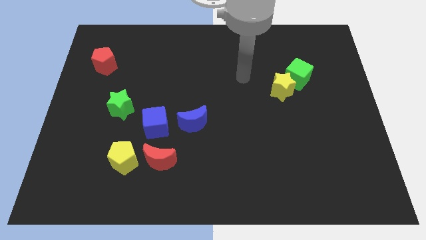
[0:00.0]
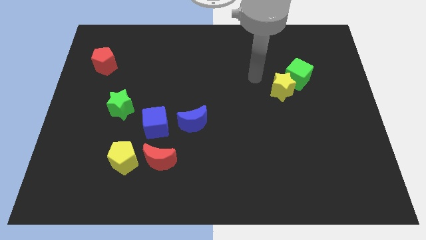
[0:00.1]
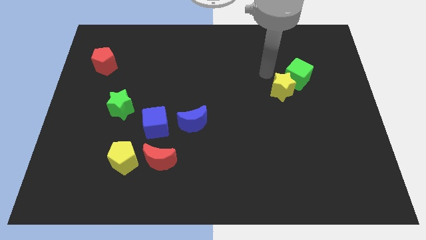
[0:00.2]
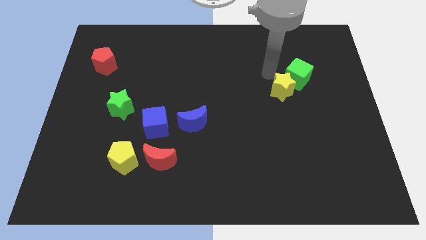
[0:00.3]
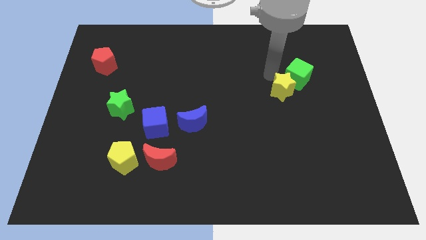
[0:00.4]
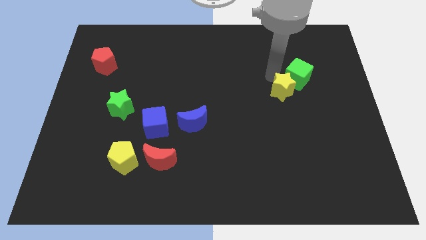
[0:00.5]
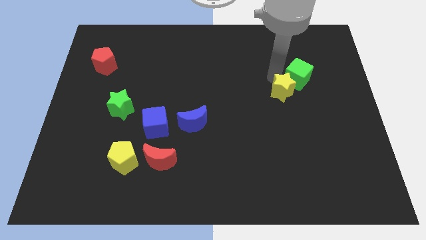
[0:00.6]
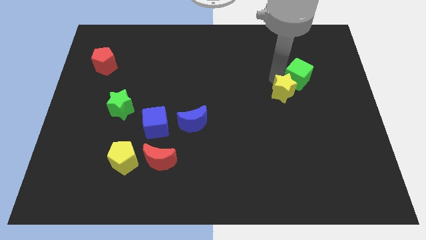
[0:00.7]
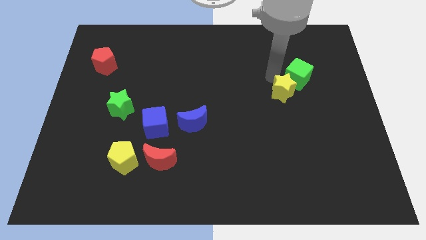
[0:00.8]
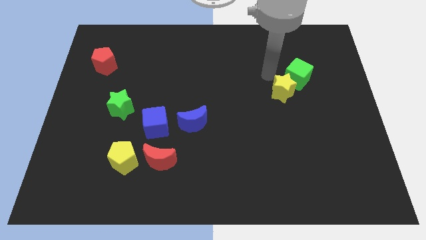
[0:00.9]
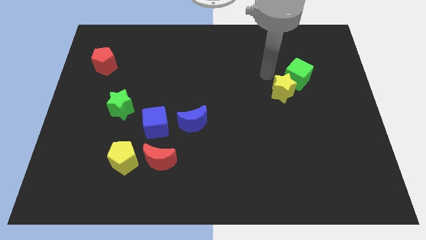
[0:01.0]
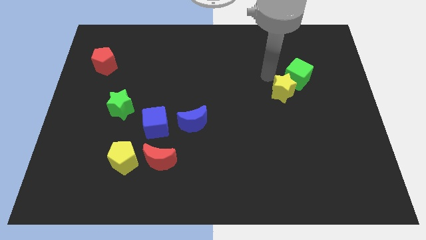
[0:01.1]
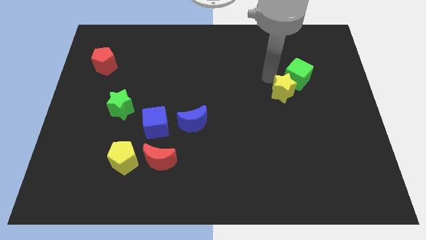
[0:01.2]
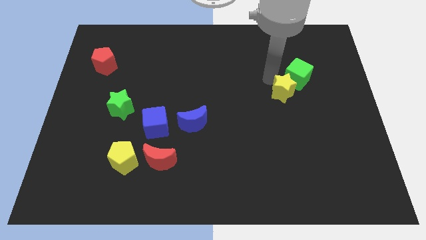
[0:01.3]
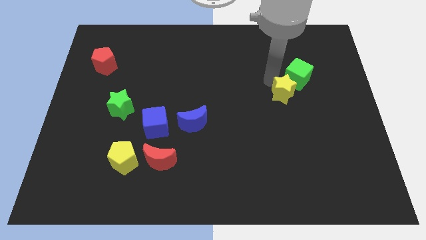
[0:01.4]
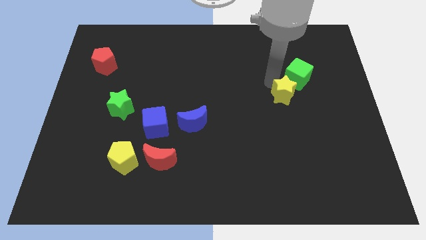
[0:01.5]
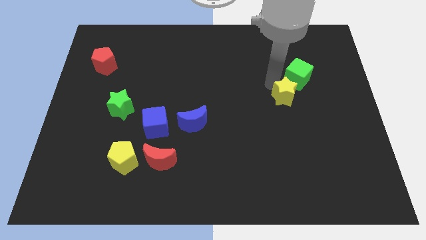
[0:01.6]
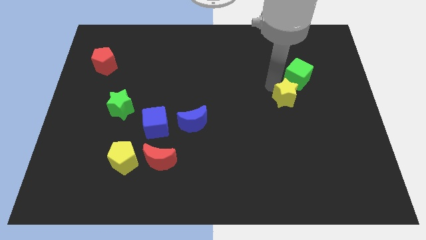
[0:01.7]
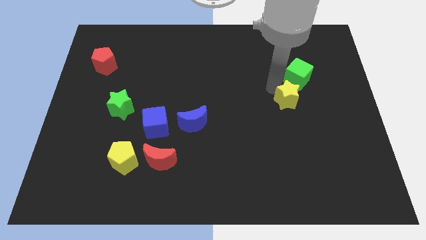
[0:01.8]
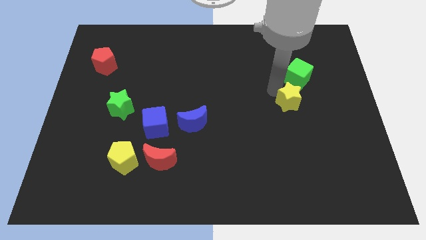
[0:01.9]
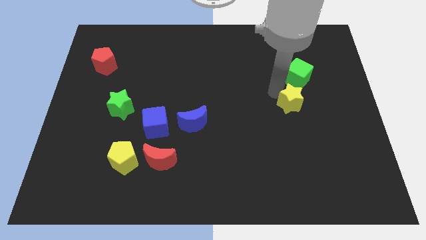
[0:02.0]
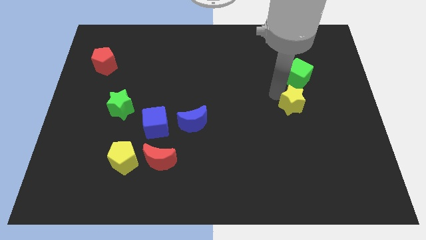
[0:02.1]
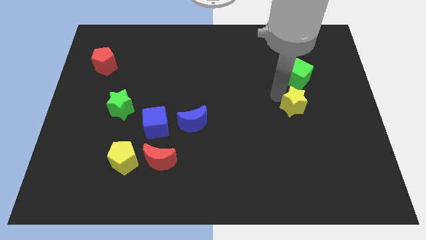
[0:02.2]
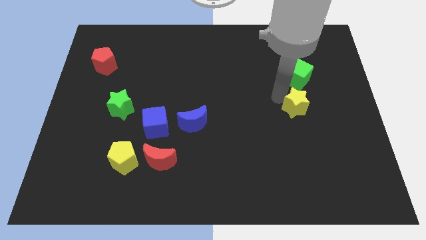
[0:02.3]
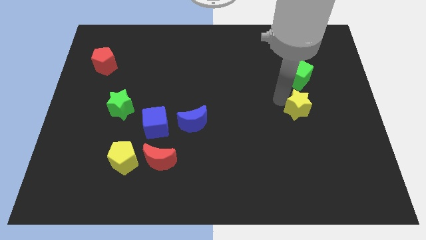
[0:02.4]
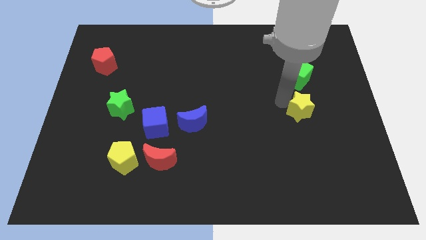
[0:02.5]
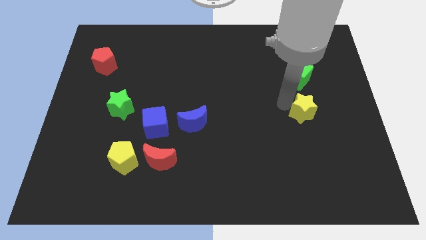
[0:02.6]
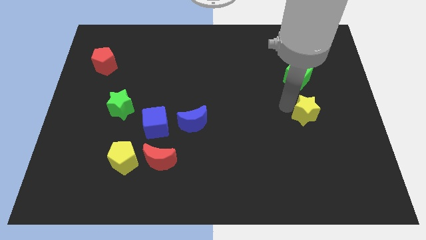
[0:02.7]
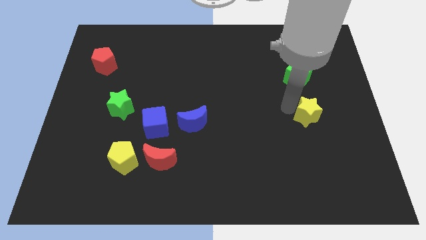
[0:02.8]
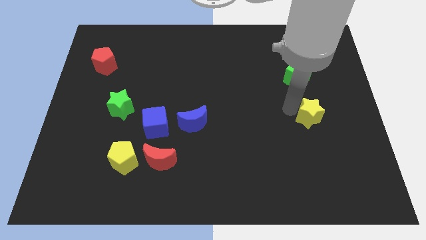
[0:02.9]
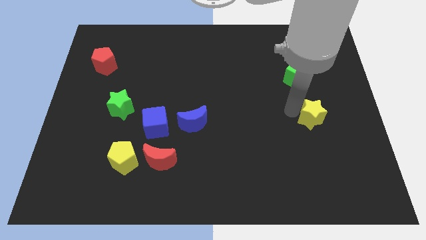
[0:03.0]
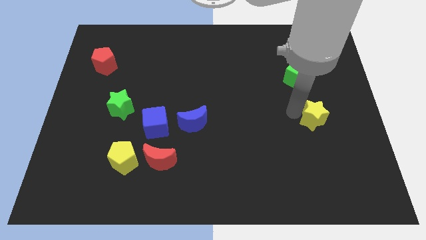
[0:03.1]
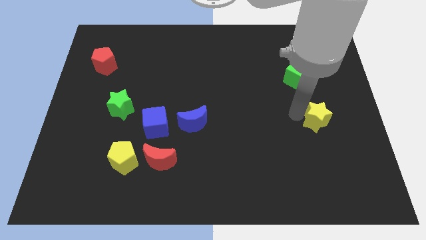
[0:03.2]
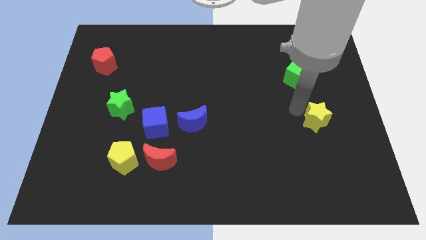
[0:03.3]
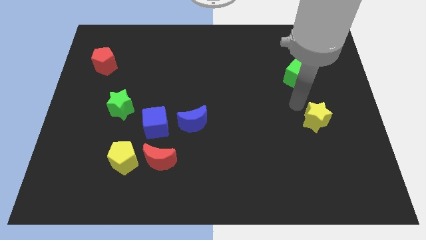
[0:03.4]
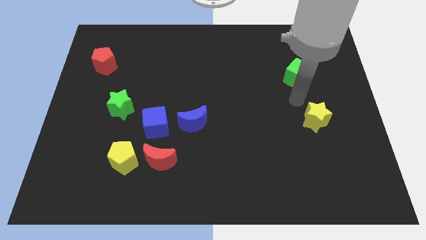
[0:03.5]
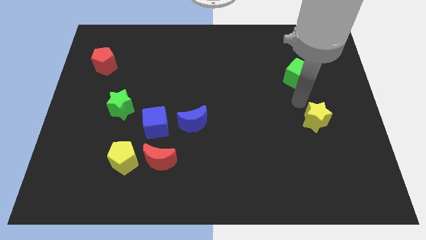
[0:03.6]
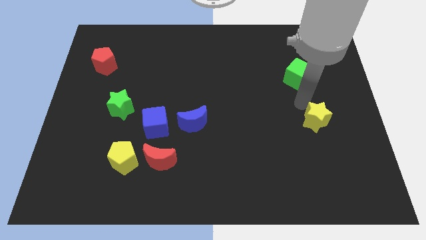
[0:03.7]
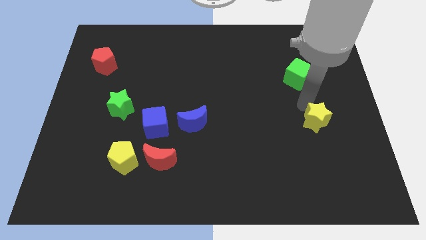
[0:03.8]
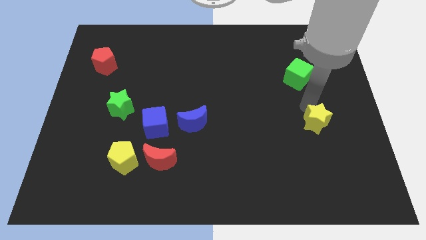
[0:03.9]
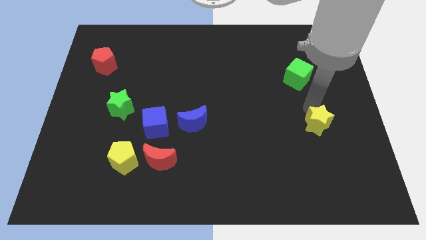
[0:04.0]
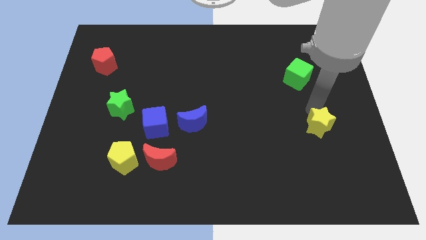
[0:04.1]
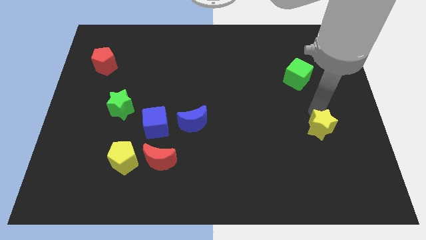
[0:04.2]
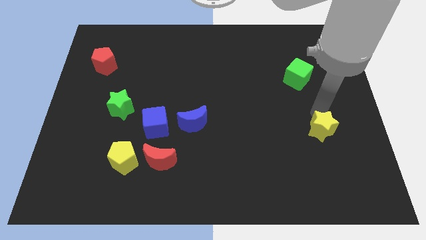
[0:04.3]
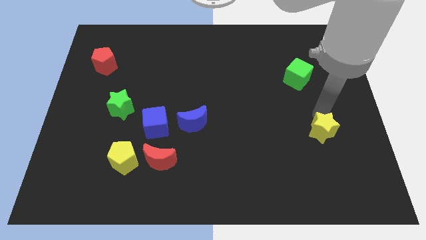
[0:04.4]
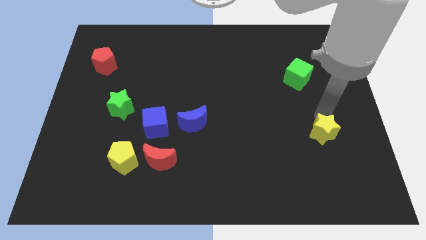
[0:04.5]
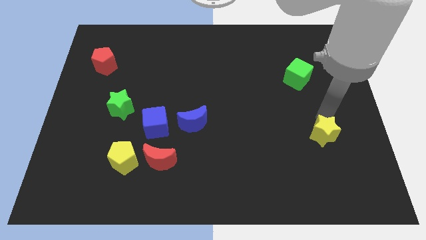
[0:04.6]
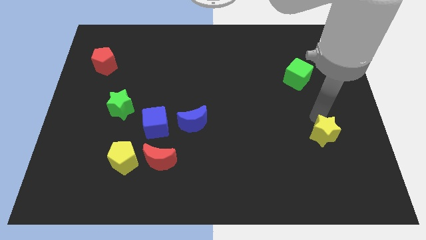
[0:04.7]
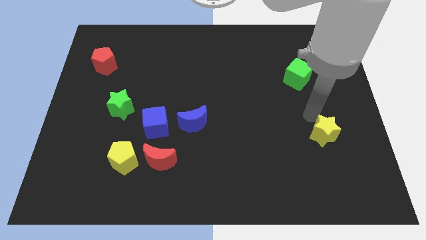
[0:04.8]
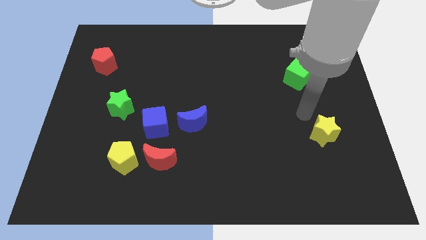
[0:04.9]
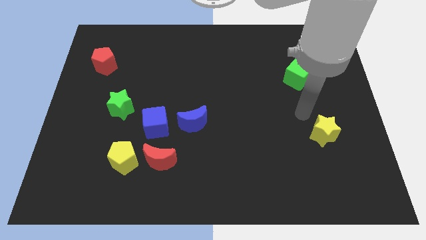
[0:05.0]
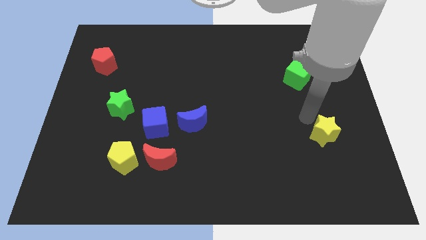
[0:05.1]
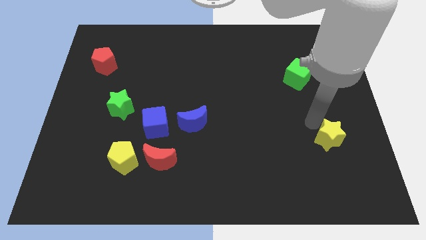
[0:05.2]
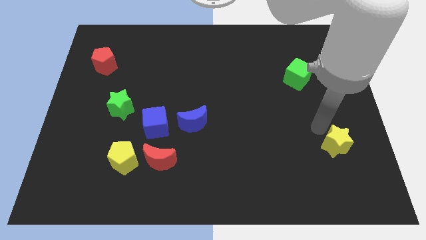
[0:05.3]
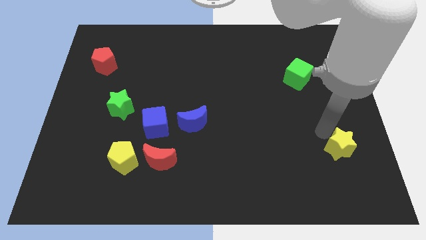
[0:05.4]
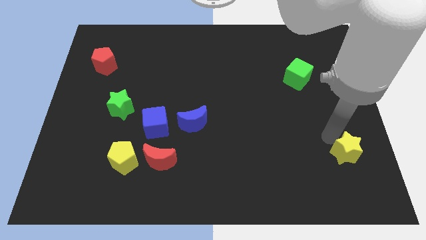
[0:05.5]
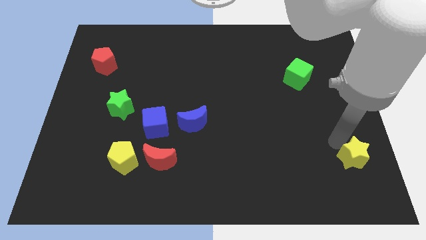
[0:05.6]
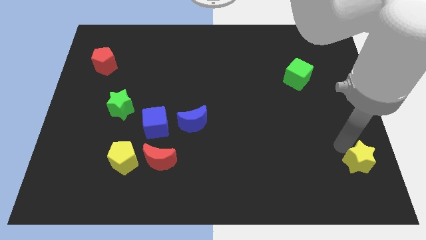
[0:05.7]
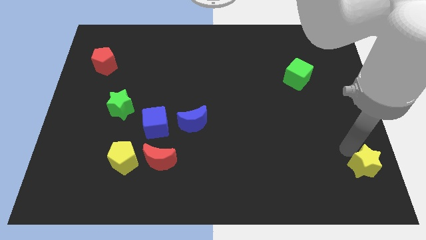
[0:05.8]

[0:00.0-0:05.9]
push the yellow star to the lower right corner

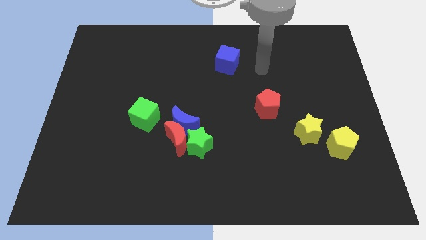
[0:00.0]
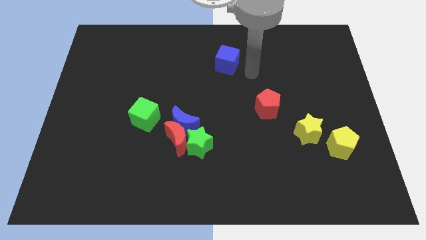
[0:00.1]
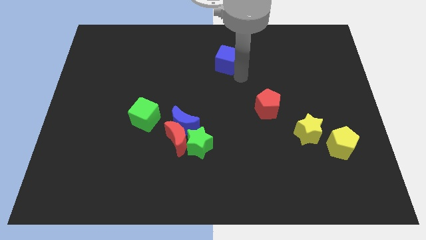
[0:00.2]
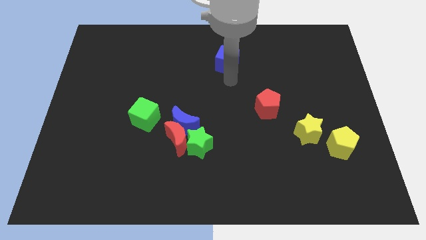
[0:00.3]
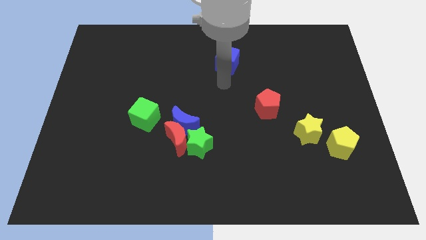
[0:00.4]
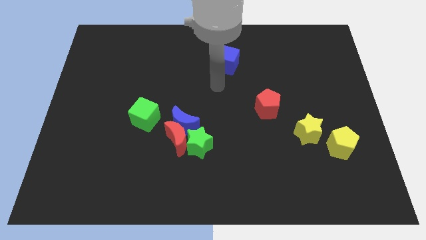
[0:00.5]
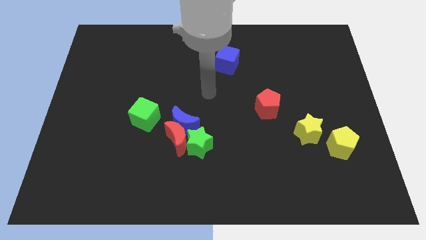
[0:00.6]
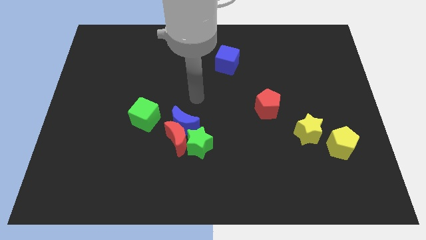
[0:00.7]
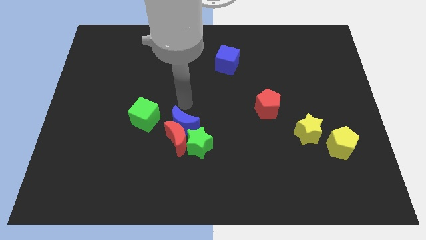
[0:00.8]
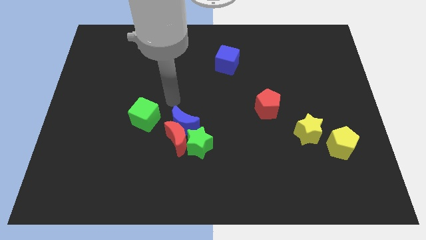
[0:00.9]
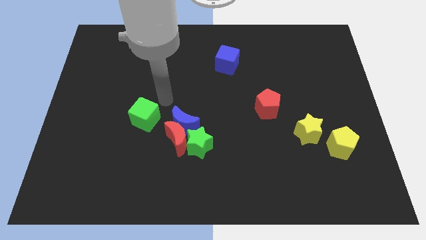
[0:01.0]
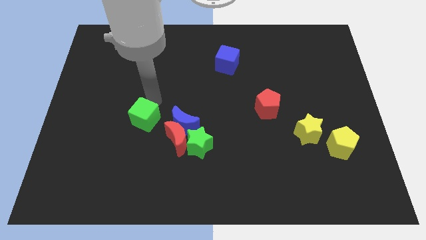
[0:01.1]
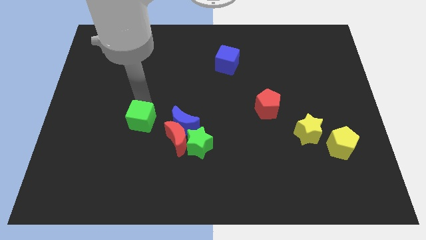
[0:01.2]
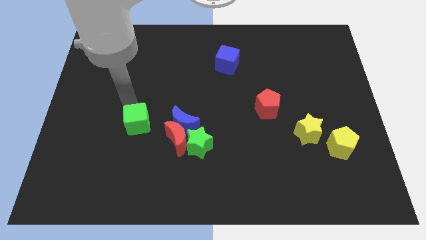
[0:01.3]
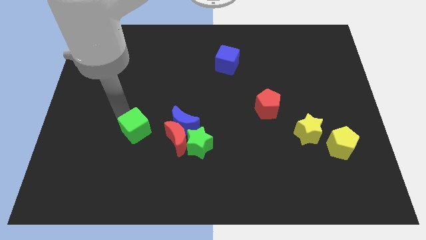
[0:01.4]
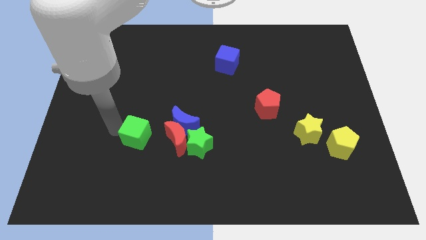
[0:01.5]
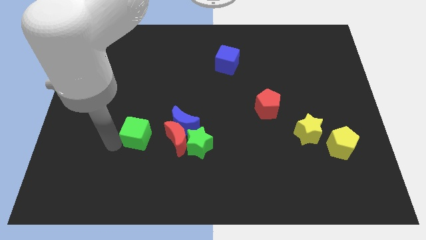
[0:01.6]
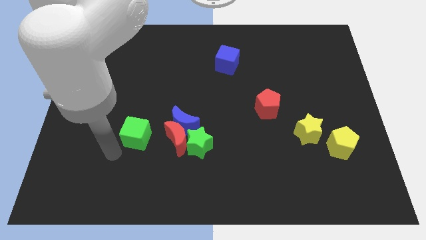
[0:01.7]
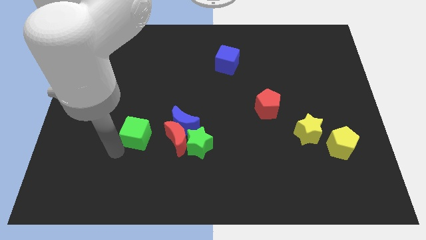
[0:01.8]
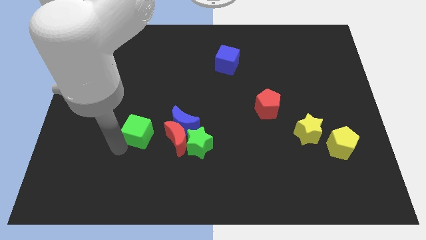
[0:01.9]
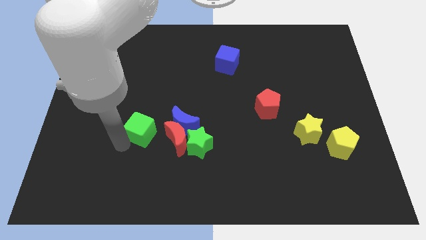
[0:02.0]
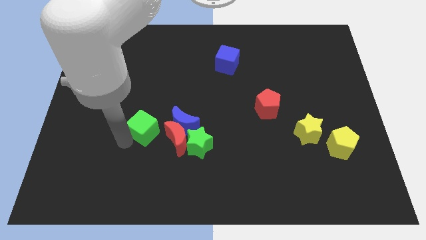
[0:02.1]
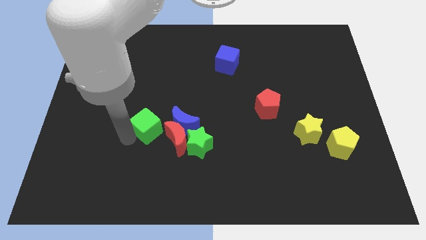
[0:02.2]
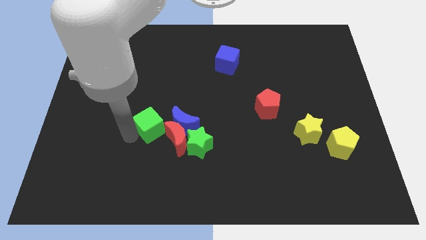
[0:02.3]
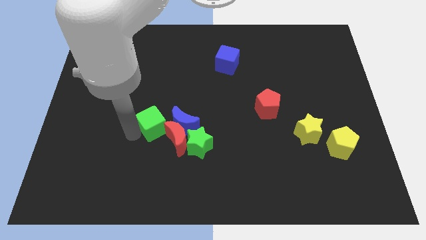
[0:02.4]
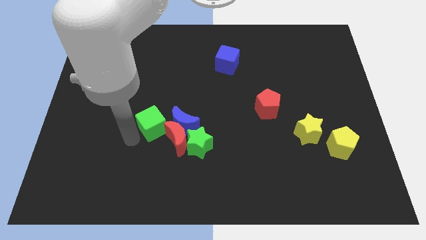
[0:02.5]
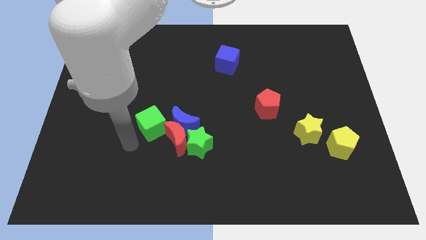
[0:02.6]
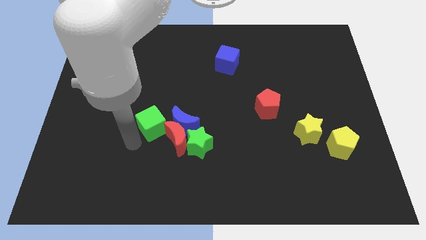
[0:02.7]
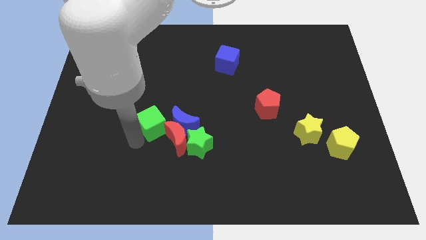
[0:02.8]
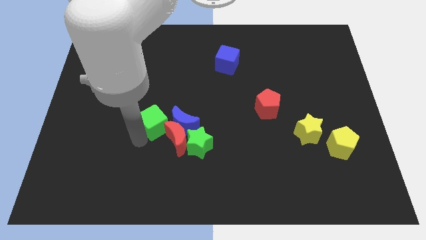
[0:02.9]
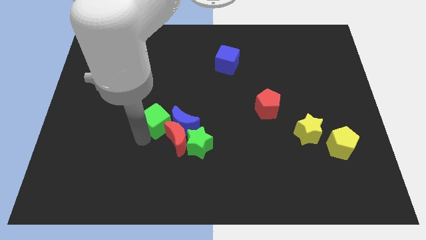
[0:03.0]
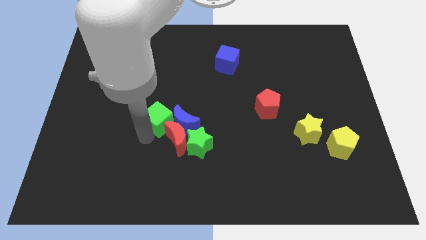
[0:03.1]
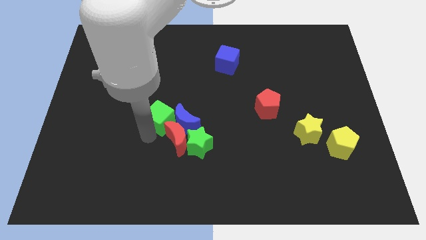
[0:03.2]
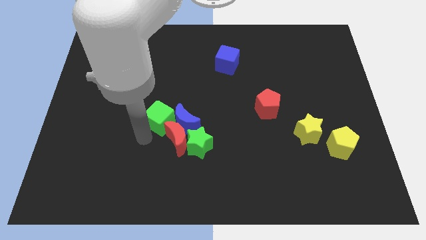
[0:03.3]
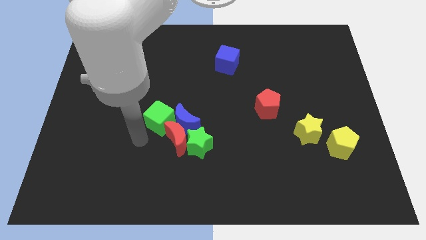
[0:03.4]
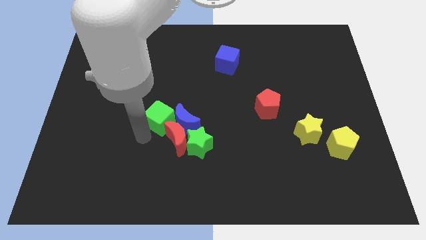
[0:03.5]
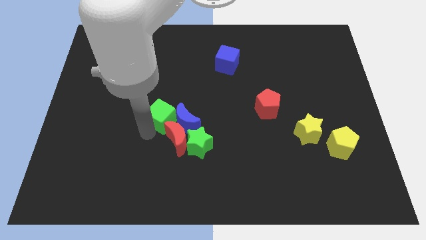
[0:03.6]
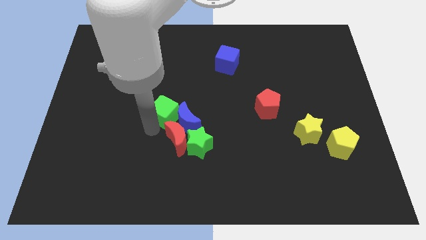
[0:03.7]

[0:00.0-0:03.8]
put the green cube to the center of the board
